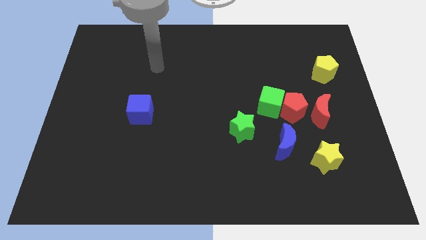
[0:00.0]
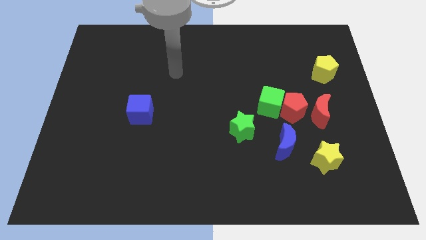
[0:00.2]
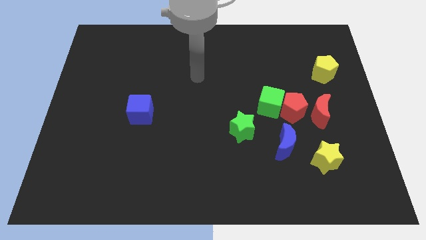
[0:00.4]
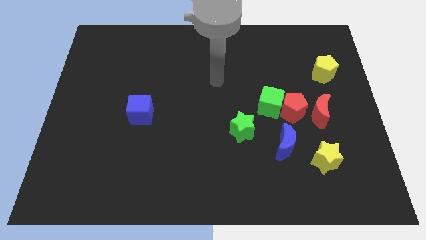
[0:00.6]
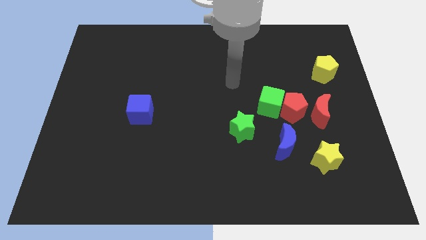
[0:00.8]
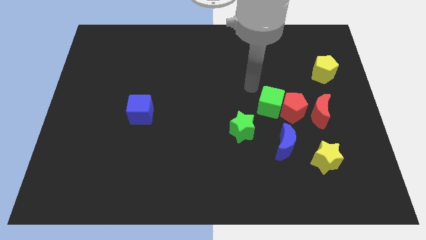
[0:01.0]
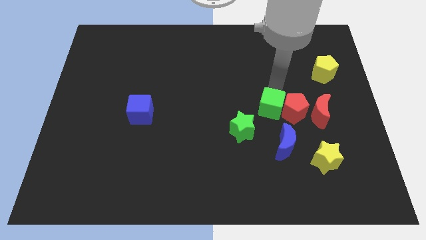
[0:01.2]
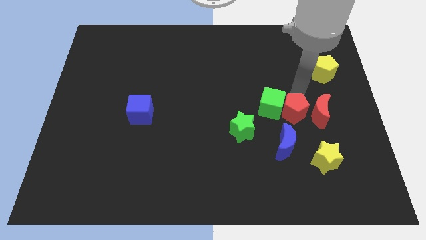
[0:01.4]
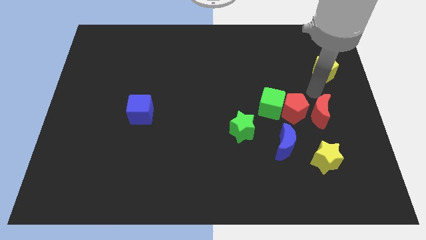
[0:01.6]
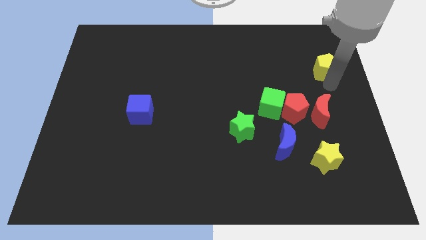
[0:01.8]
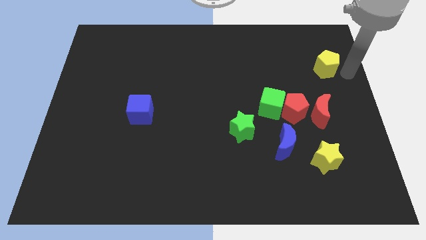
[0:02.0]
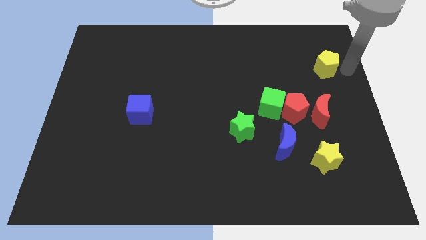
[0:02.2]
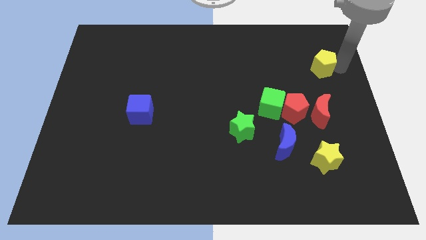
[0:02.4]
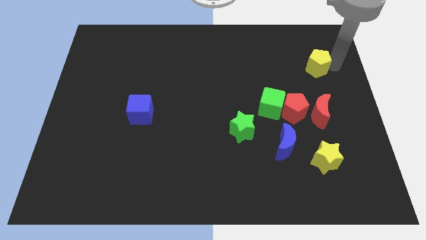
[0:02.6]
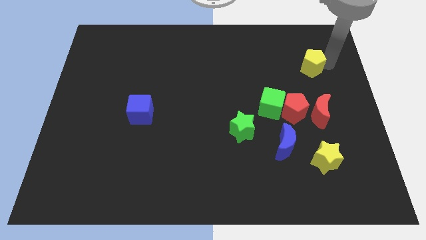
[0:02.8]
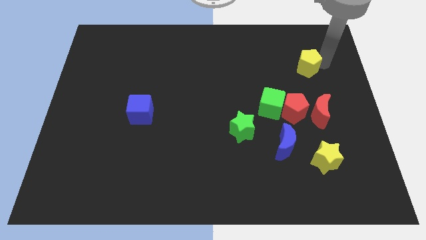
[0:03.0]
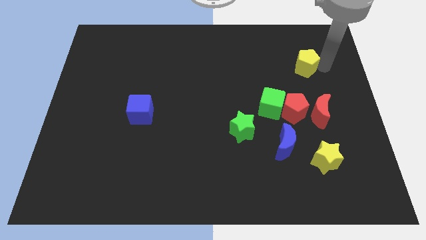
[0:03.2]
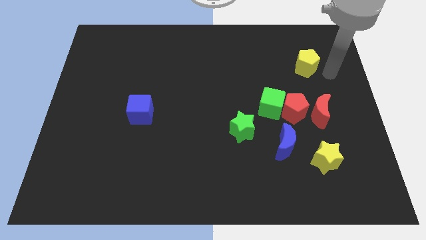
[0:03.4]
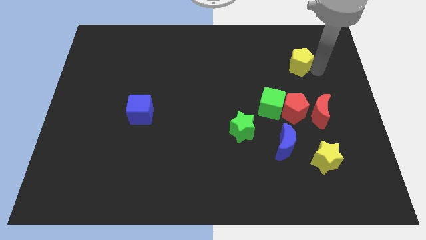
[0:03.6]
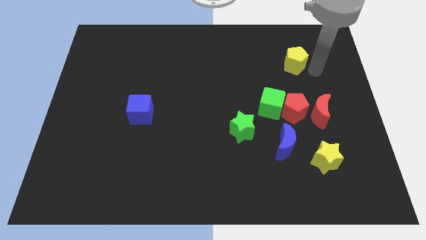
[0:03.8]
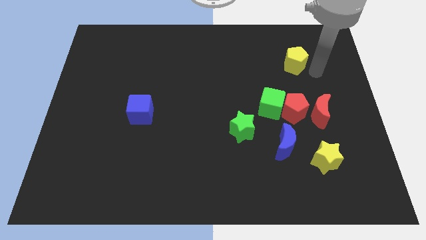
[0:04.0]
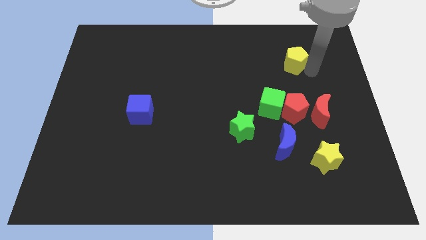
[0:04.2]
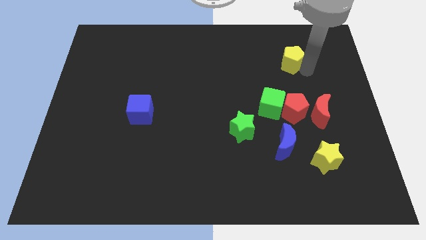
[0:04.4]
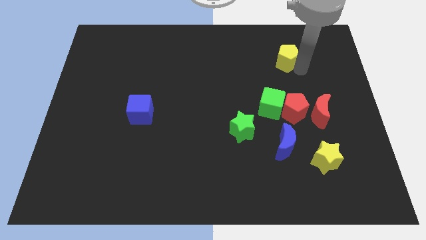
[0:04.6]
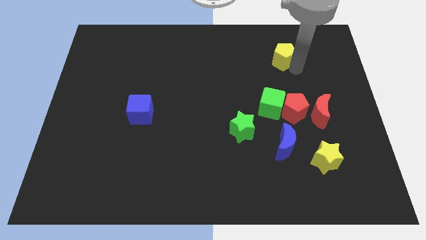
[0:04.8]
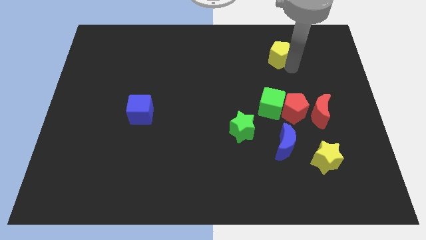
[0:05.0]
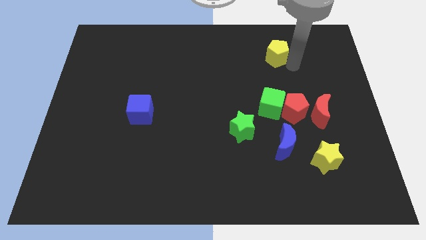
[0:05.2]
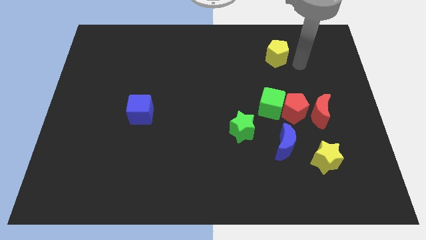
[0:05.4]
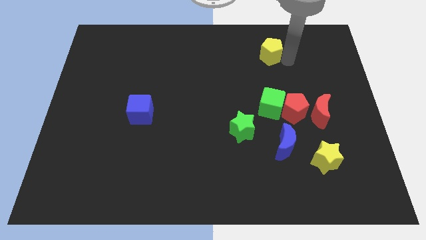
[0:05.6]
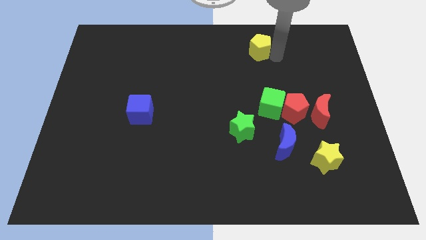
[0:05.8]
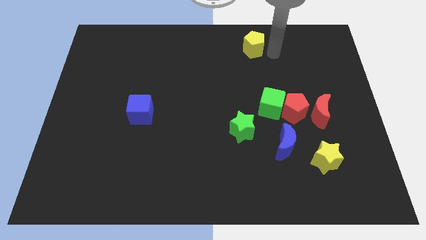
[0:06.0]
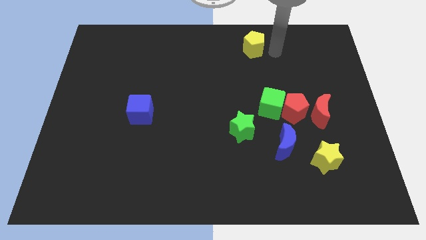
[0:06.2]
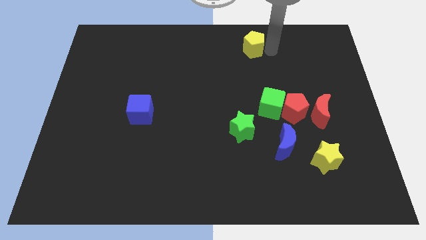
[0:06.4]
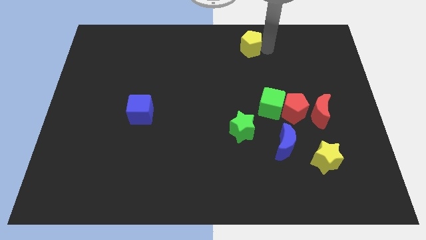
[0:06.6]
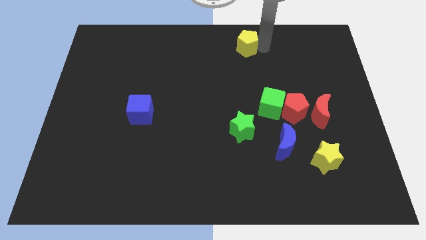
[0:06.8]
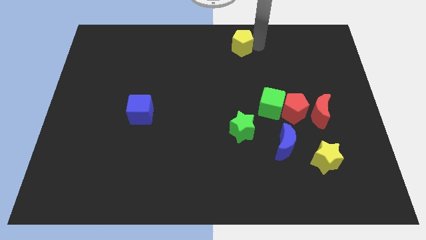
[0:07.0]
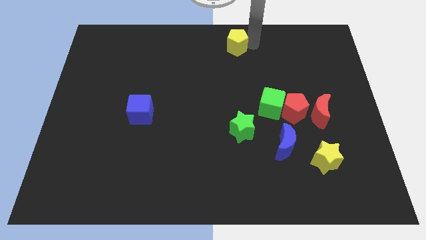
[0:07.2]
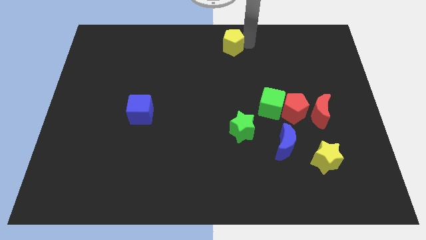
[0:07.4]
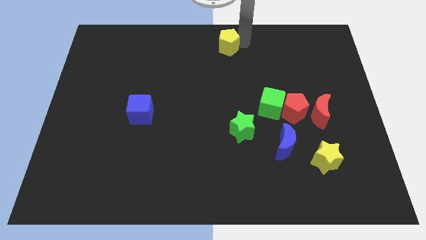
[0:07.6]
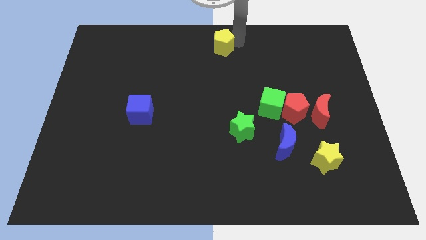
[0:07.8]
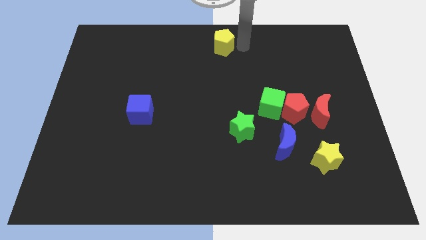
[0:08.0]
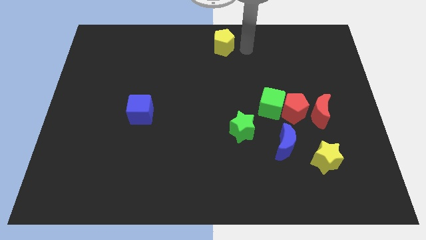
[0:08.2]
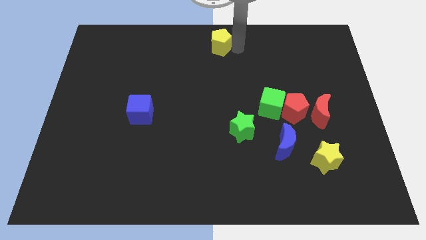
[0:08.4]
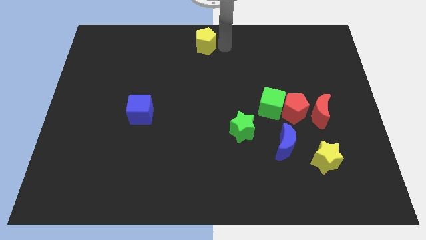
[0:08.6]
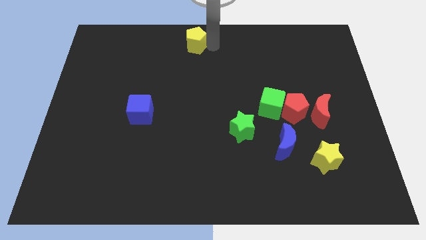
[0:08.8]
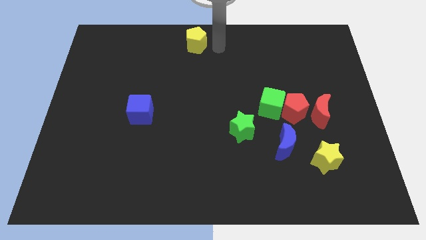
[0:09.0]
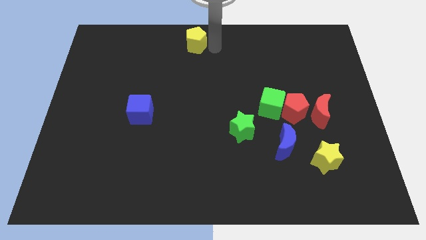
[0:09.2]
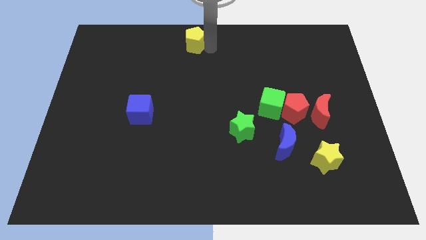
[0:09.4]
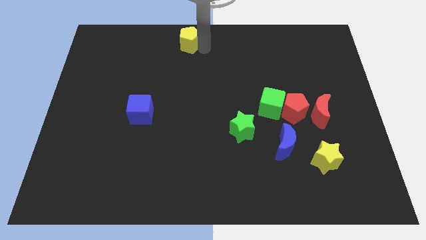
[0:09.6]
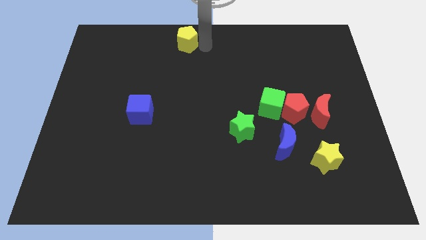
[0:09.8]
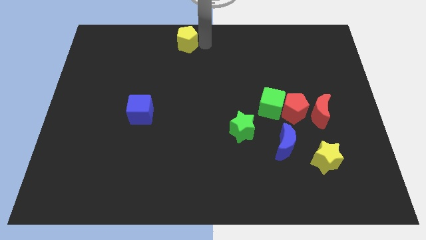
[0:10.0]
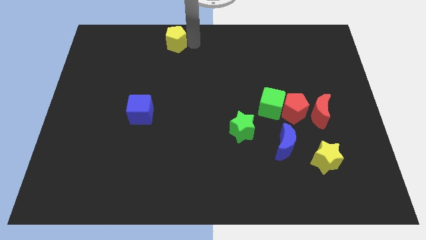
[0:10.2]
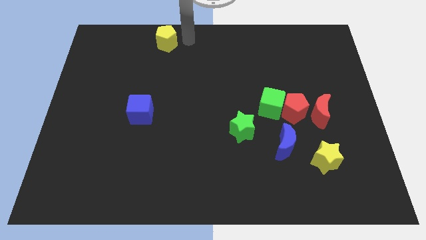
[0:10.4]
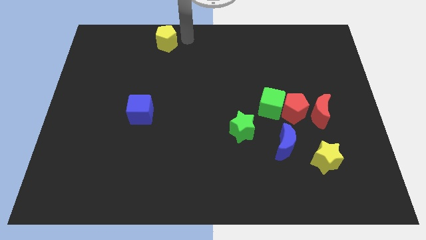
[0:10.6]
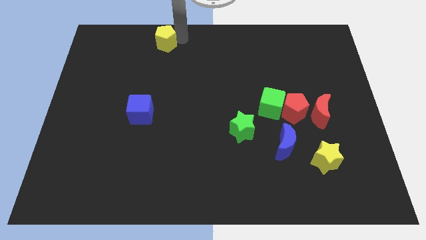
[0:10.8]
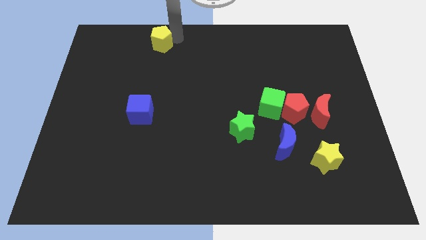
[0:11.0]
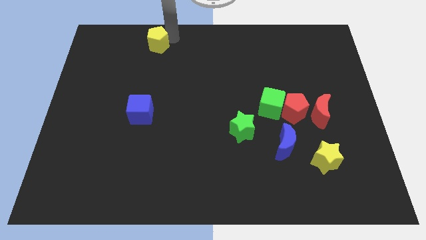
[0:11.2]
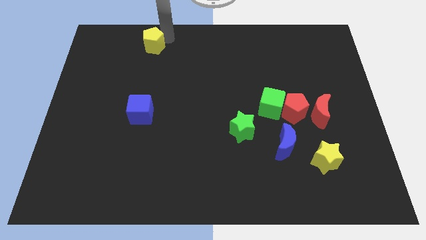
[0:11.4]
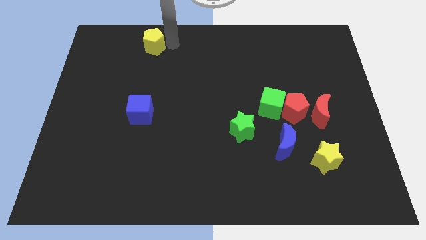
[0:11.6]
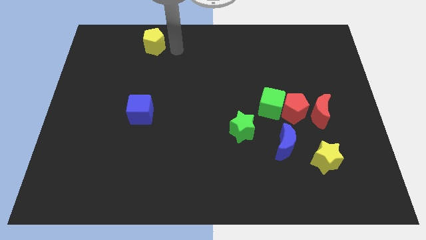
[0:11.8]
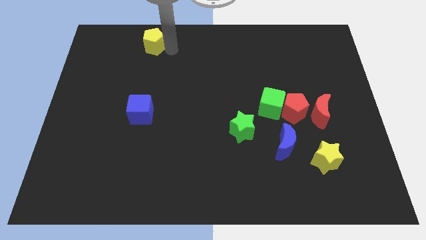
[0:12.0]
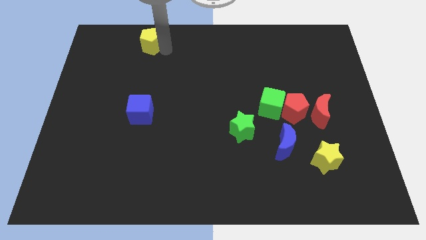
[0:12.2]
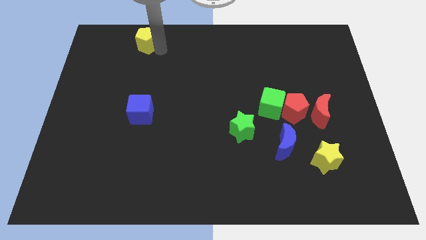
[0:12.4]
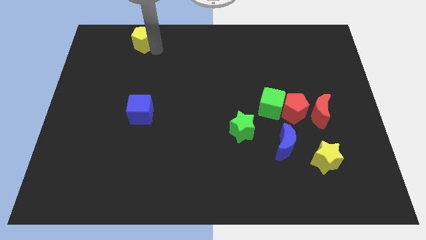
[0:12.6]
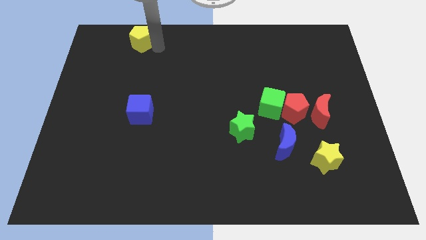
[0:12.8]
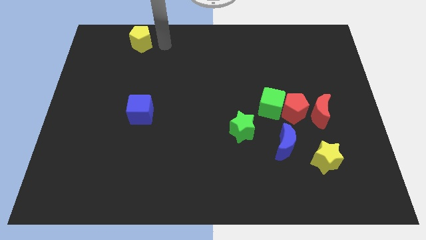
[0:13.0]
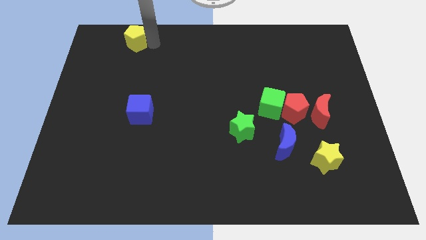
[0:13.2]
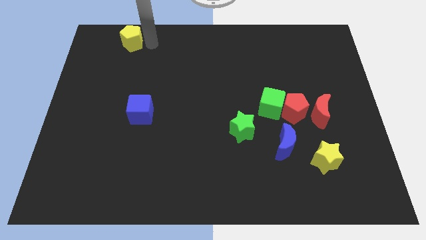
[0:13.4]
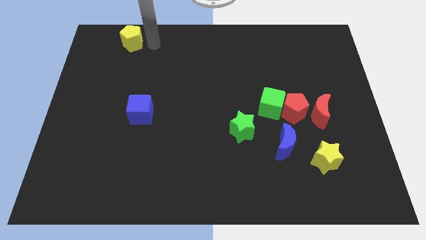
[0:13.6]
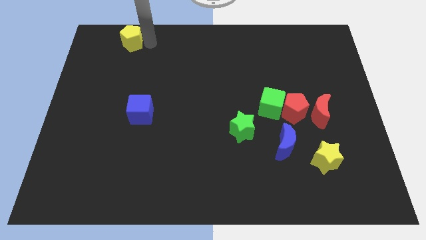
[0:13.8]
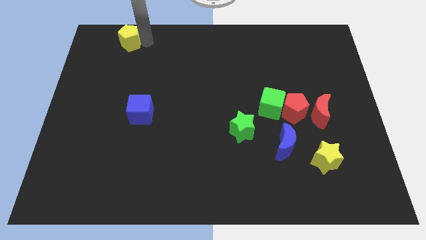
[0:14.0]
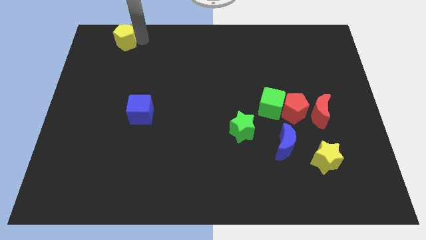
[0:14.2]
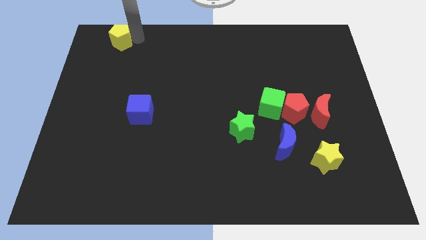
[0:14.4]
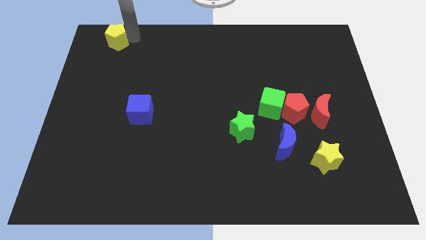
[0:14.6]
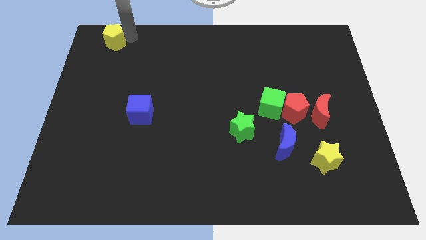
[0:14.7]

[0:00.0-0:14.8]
push the yellow pentagon to the top left of the board

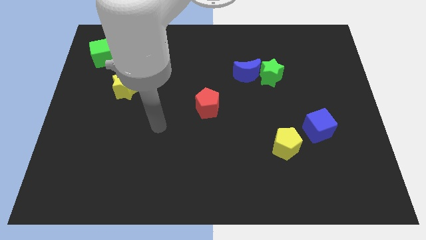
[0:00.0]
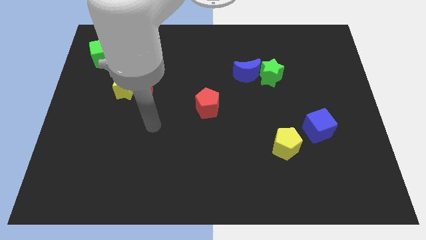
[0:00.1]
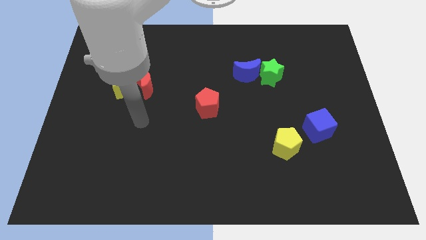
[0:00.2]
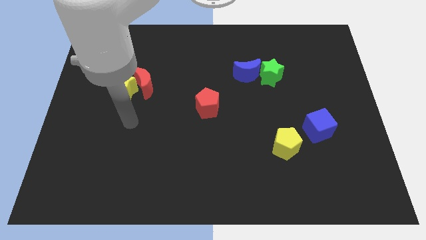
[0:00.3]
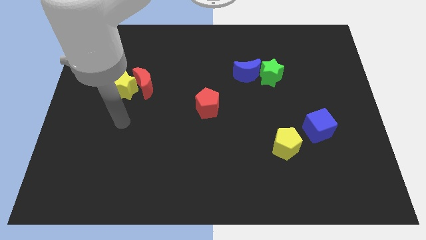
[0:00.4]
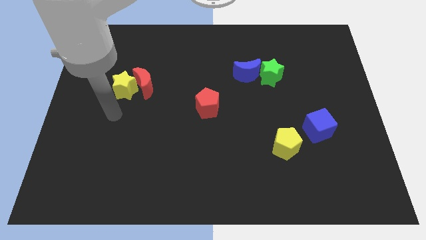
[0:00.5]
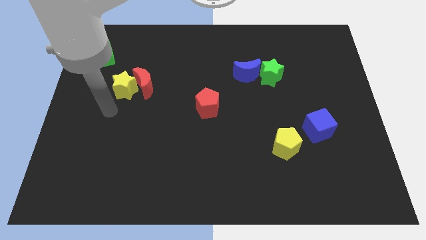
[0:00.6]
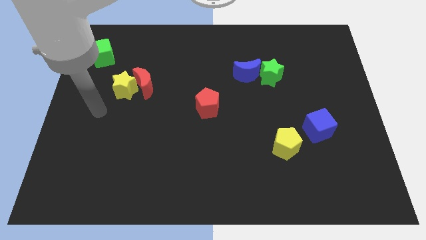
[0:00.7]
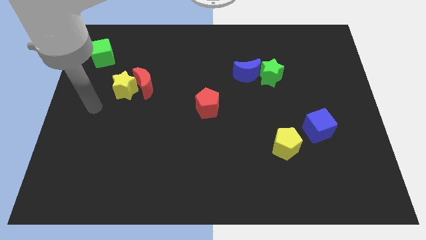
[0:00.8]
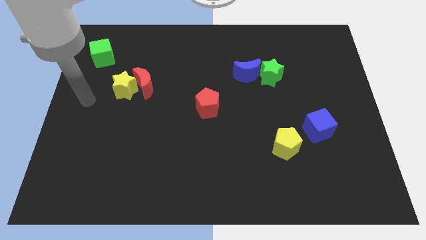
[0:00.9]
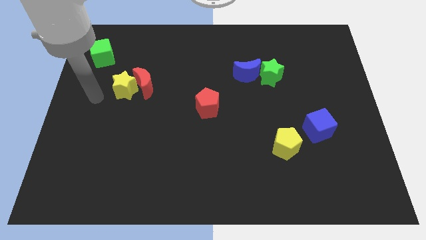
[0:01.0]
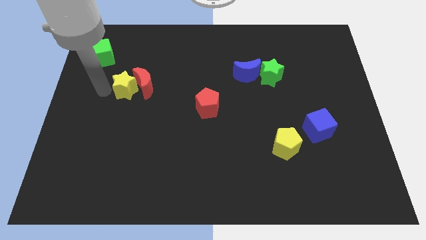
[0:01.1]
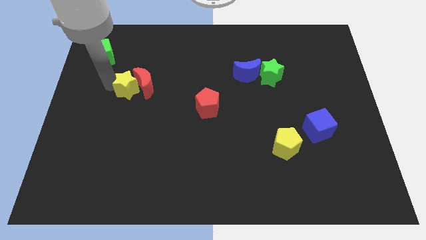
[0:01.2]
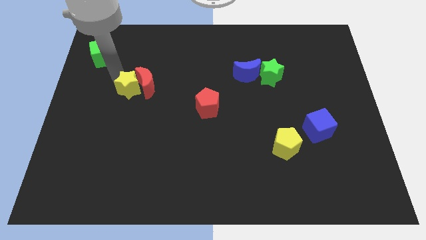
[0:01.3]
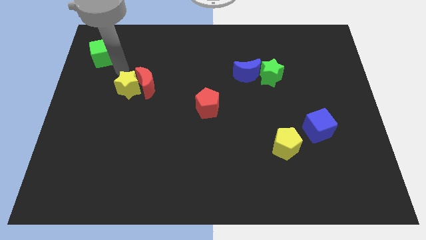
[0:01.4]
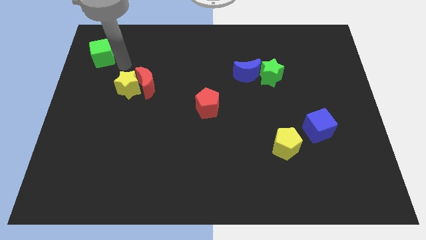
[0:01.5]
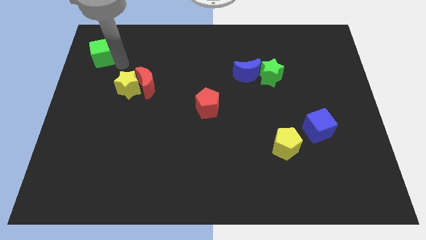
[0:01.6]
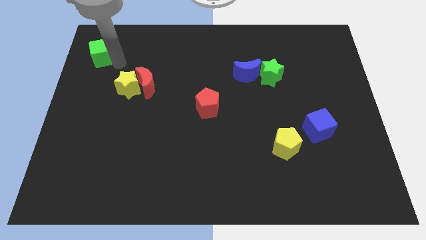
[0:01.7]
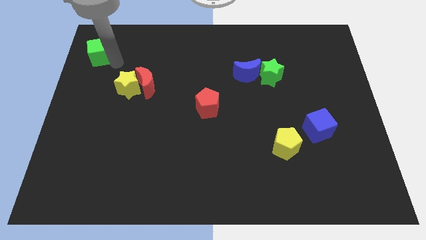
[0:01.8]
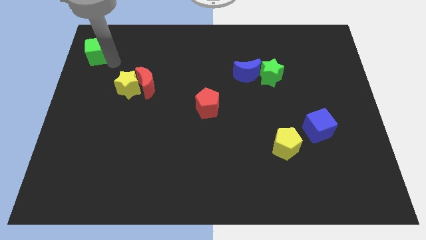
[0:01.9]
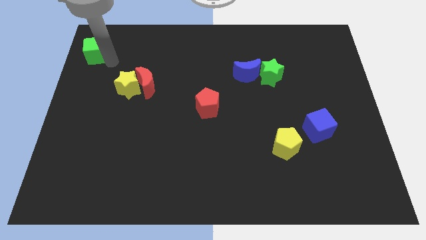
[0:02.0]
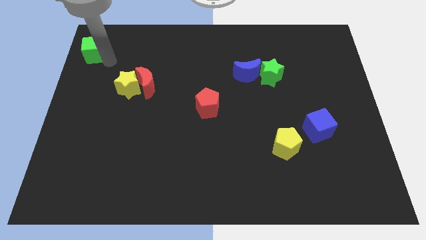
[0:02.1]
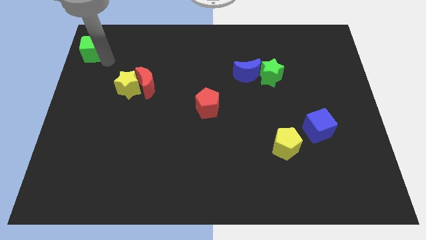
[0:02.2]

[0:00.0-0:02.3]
push the green cube to the top left of the board
